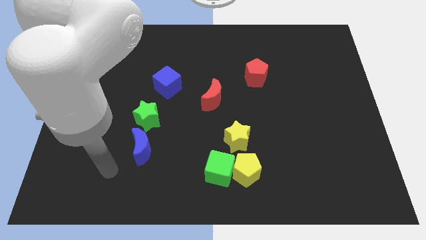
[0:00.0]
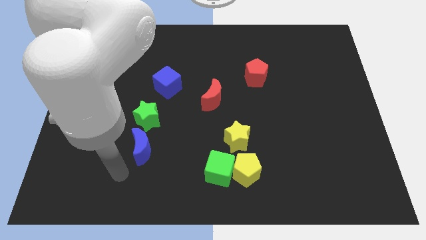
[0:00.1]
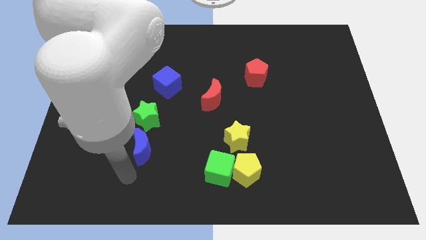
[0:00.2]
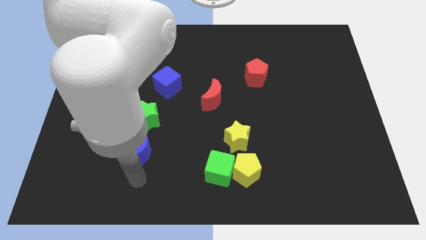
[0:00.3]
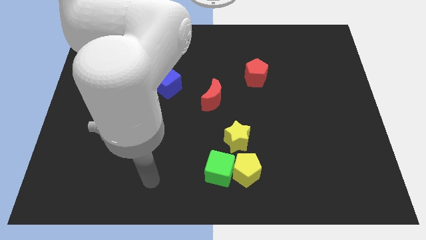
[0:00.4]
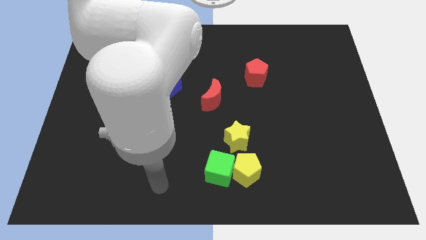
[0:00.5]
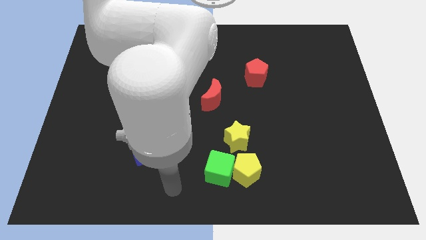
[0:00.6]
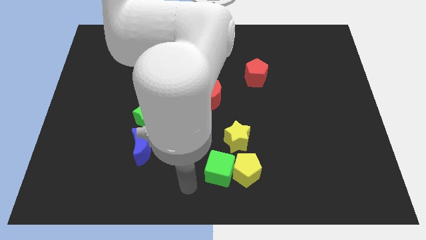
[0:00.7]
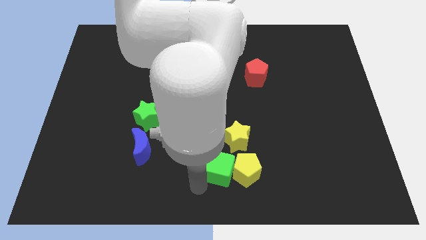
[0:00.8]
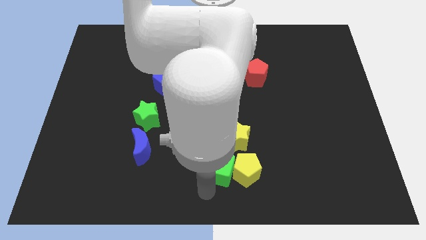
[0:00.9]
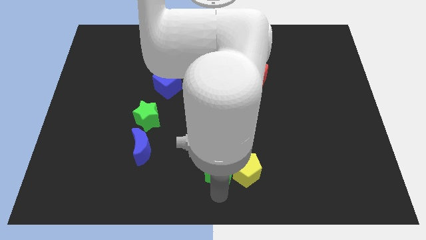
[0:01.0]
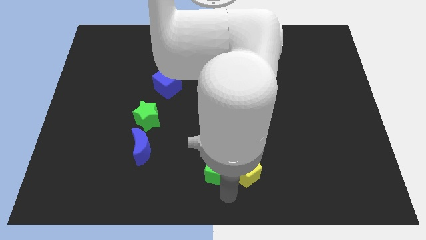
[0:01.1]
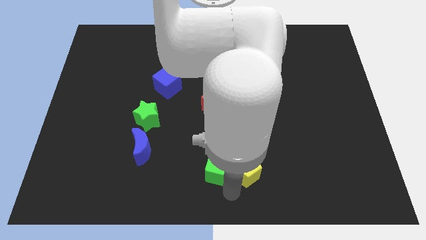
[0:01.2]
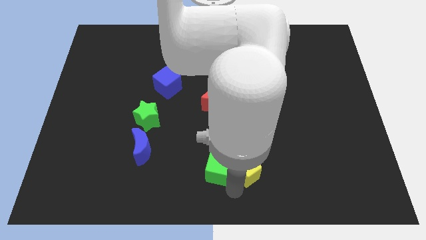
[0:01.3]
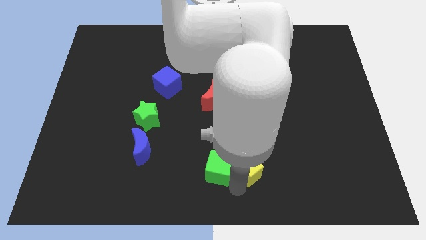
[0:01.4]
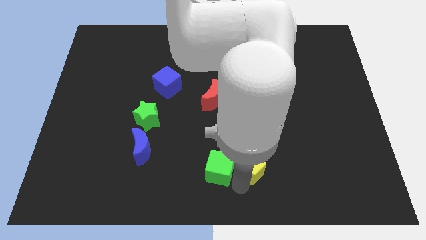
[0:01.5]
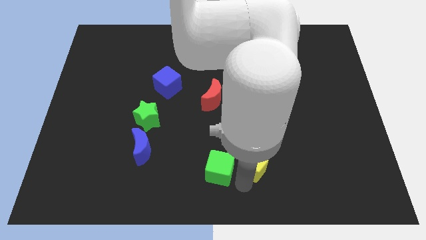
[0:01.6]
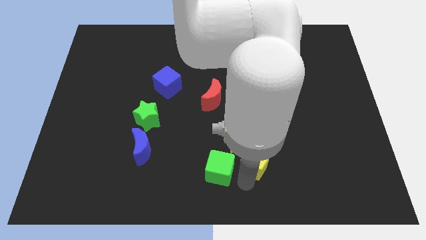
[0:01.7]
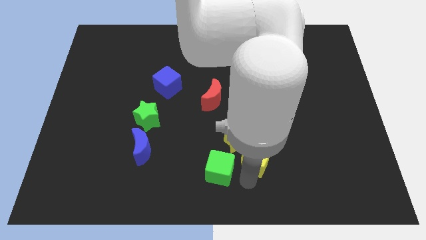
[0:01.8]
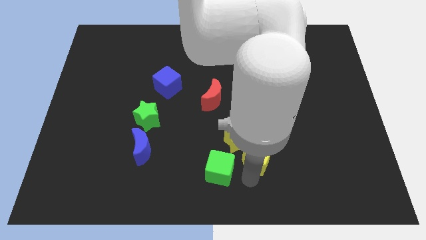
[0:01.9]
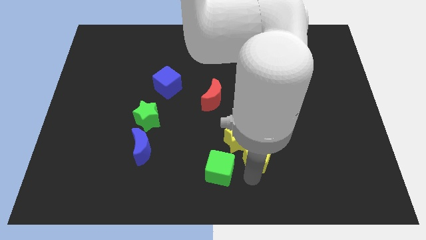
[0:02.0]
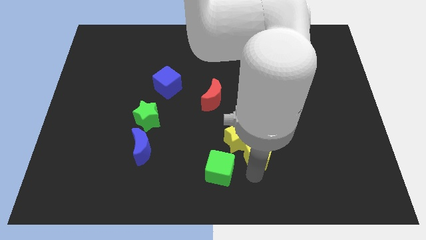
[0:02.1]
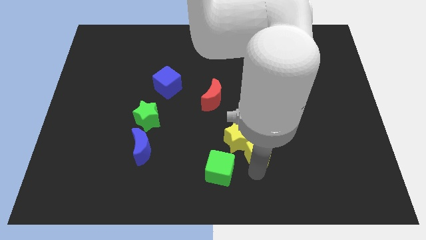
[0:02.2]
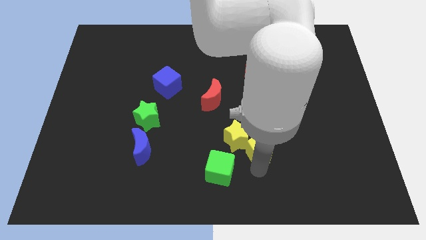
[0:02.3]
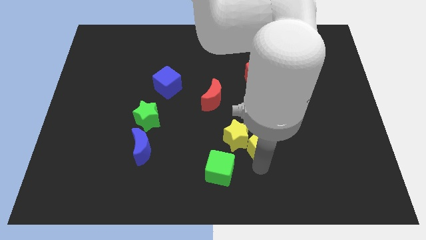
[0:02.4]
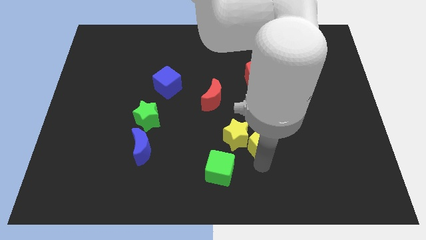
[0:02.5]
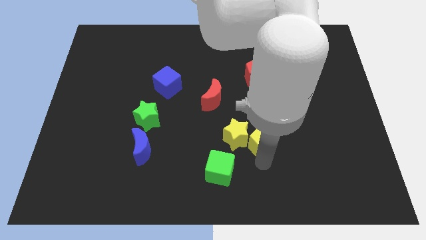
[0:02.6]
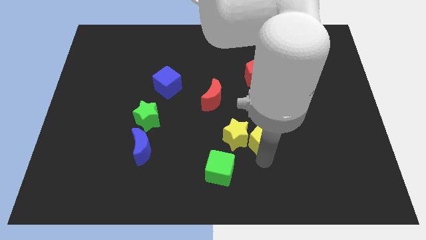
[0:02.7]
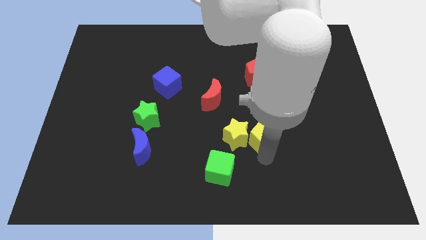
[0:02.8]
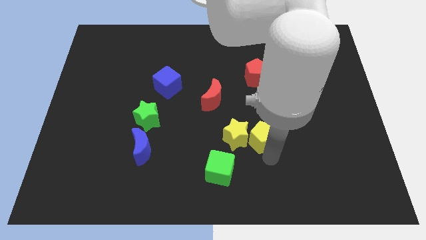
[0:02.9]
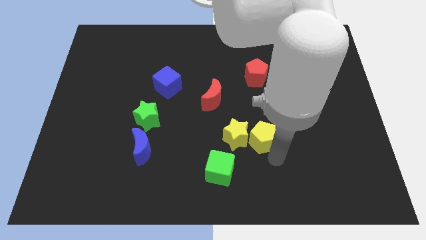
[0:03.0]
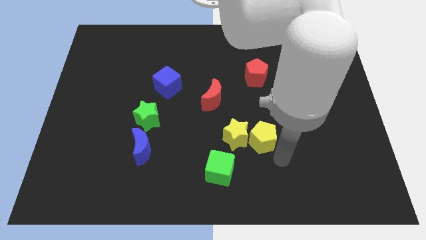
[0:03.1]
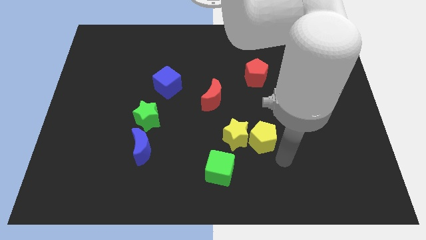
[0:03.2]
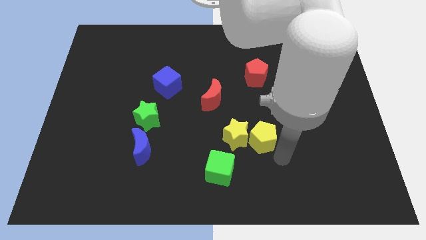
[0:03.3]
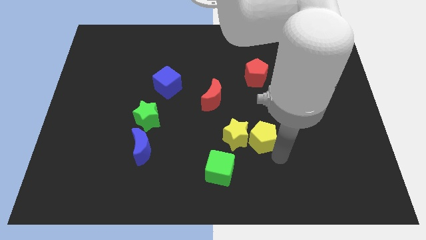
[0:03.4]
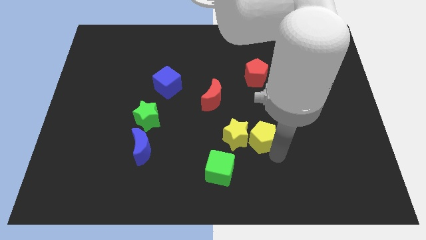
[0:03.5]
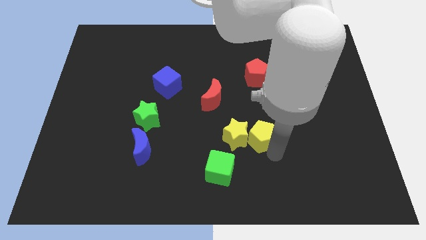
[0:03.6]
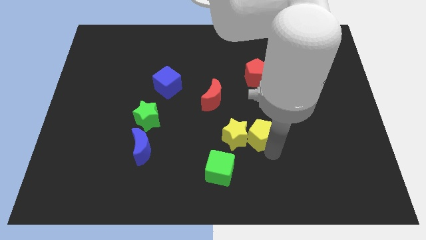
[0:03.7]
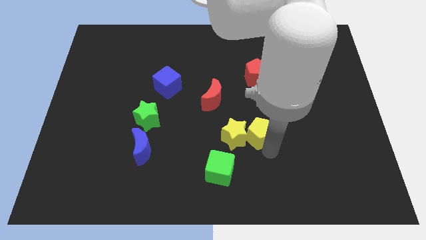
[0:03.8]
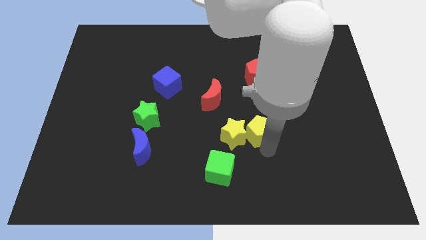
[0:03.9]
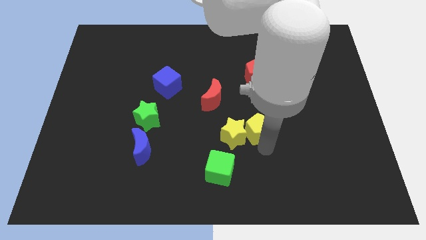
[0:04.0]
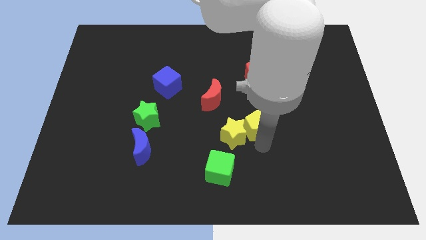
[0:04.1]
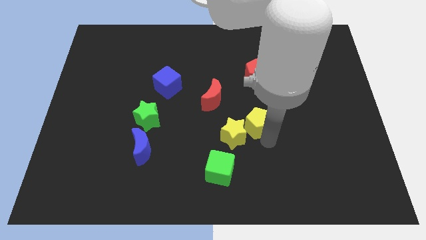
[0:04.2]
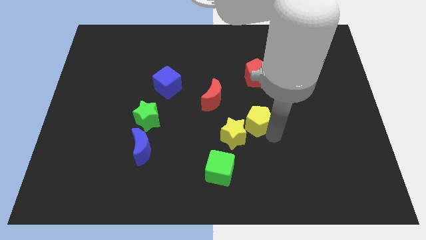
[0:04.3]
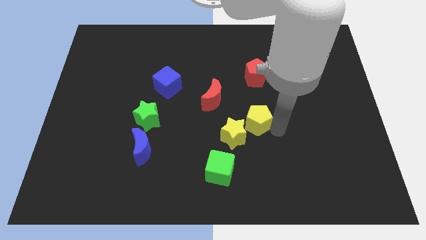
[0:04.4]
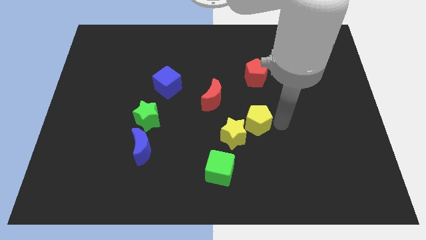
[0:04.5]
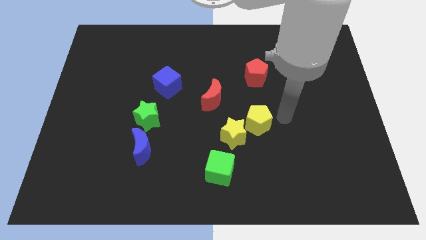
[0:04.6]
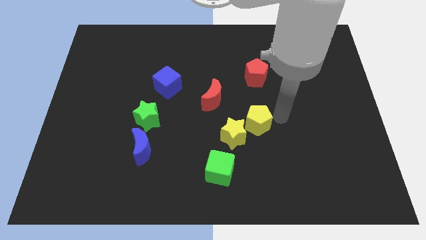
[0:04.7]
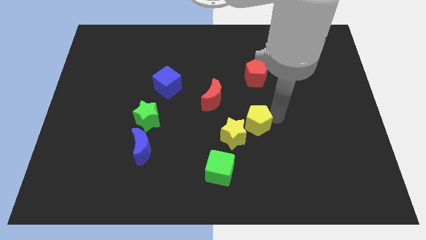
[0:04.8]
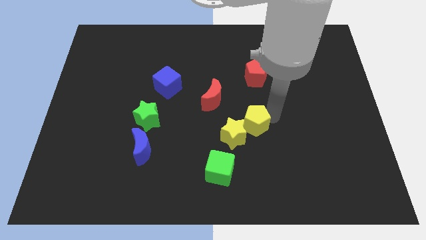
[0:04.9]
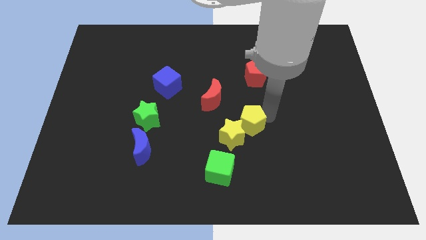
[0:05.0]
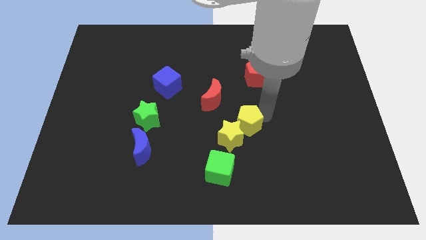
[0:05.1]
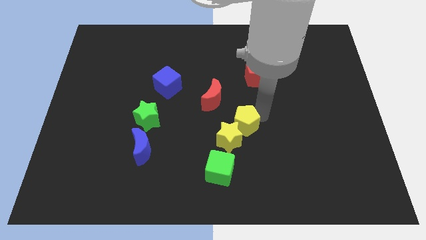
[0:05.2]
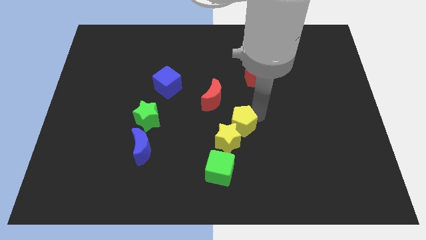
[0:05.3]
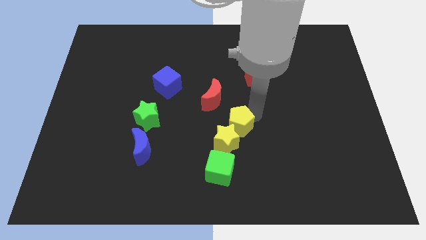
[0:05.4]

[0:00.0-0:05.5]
push the yellow pentagon to the top side of the green cube
